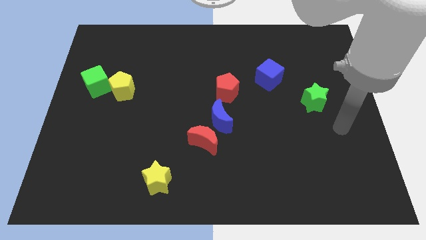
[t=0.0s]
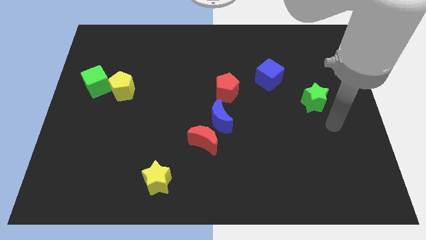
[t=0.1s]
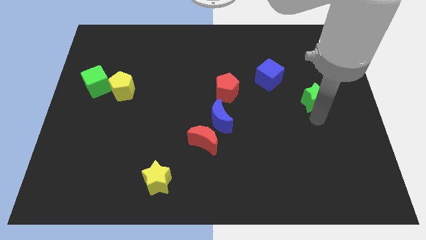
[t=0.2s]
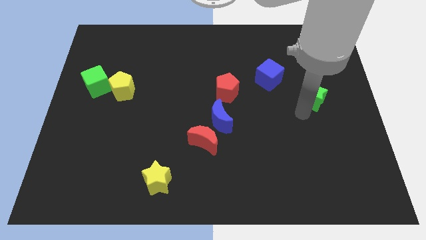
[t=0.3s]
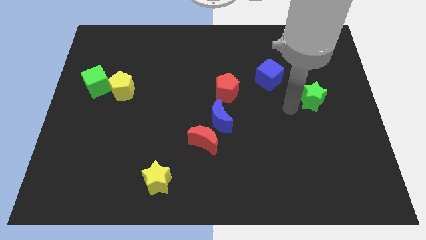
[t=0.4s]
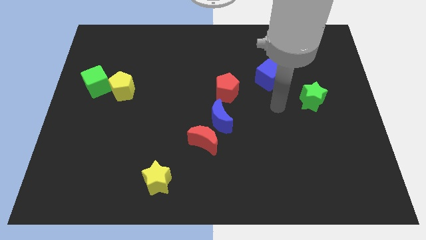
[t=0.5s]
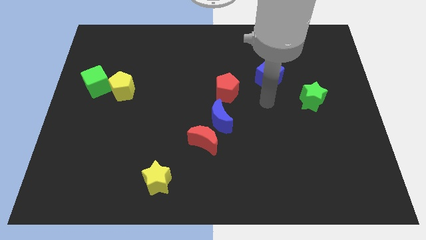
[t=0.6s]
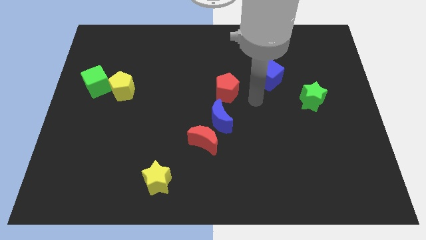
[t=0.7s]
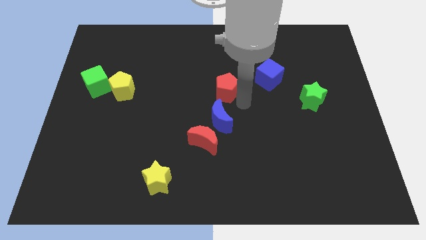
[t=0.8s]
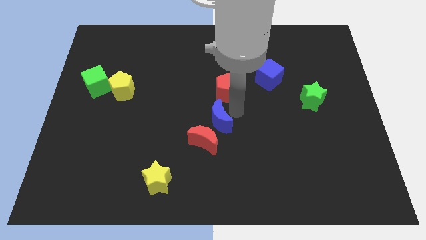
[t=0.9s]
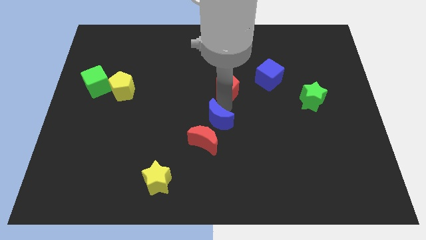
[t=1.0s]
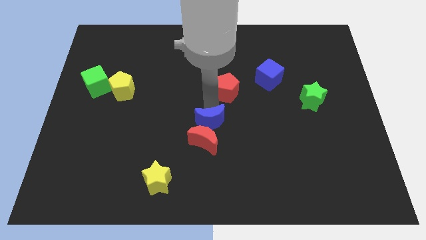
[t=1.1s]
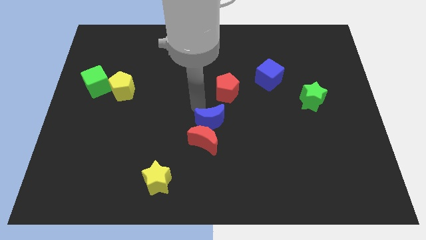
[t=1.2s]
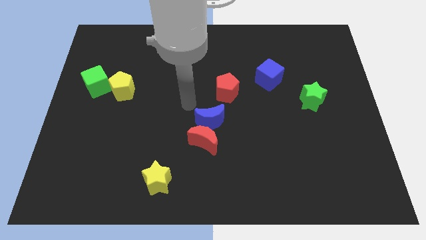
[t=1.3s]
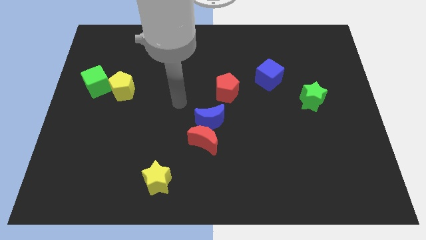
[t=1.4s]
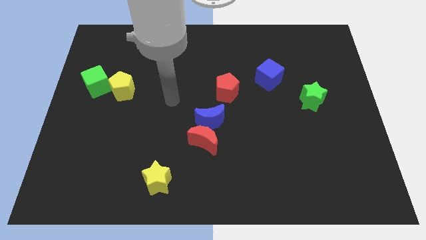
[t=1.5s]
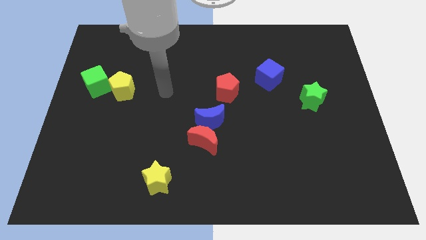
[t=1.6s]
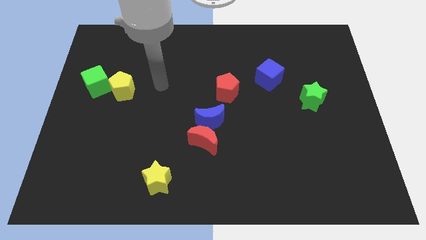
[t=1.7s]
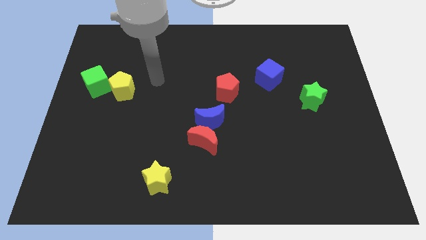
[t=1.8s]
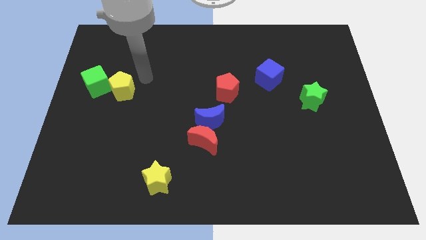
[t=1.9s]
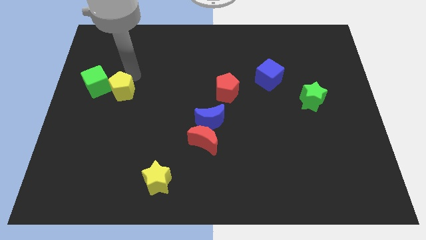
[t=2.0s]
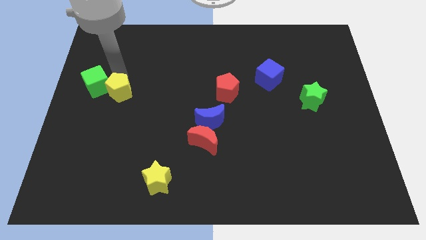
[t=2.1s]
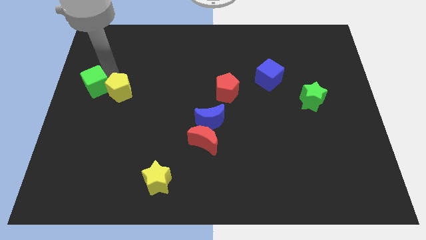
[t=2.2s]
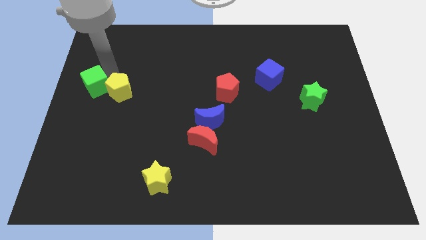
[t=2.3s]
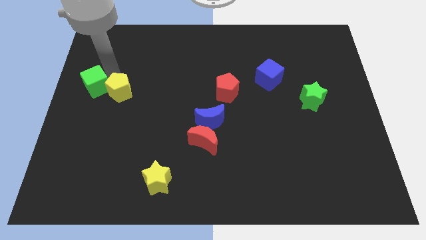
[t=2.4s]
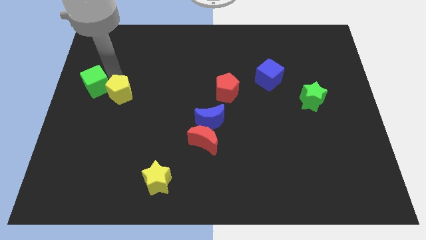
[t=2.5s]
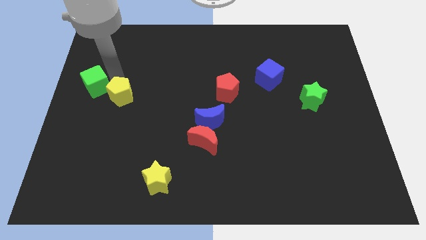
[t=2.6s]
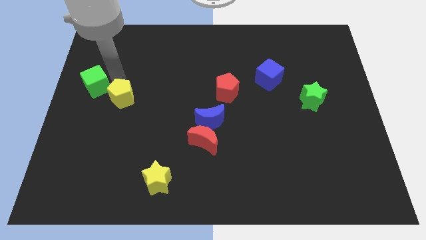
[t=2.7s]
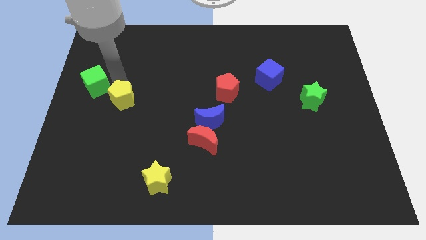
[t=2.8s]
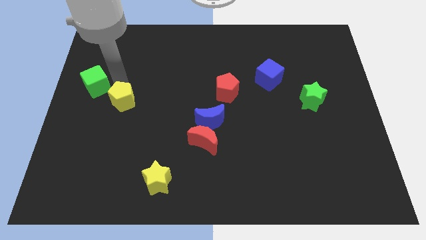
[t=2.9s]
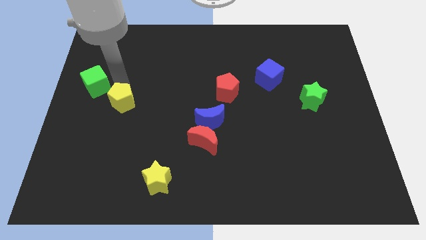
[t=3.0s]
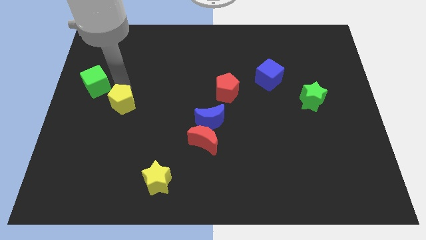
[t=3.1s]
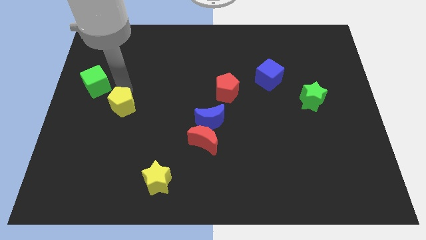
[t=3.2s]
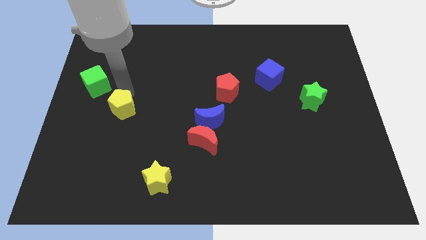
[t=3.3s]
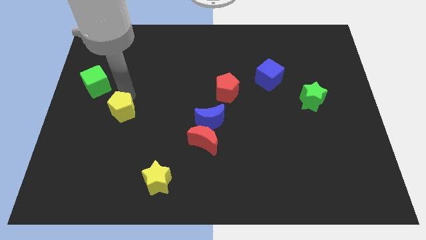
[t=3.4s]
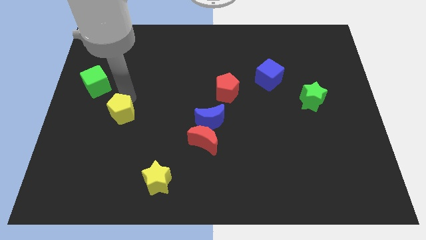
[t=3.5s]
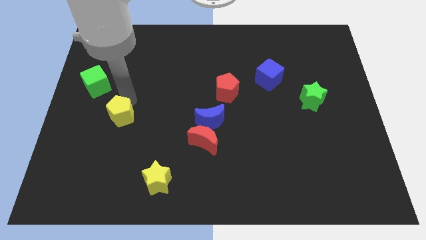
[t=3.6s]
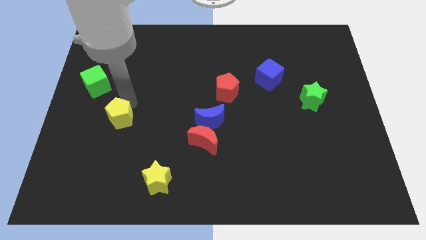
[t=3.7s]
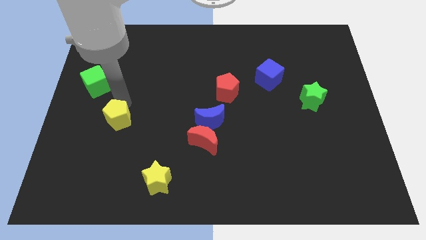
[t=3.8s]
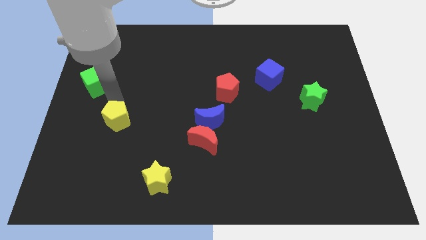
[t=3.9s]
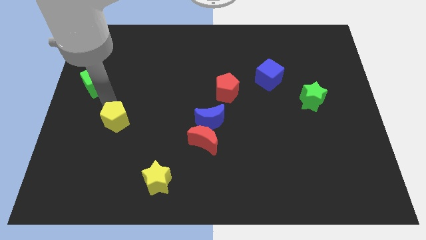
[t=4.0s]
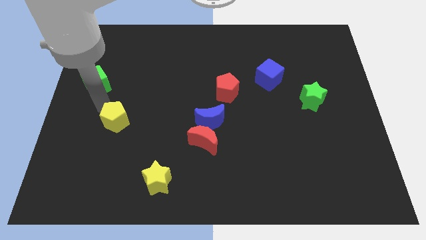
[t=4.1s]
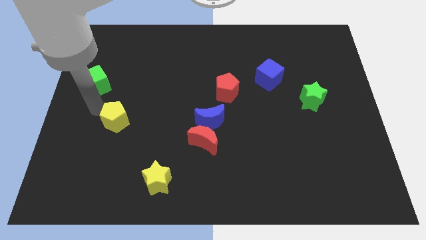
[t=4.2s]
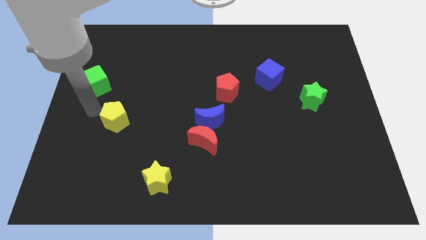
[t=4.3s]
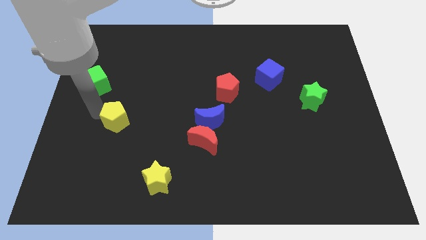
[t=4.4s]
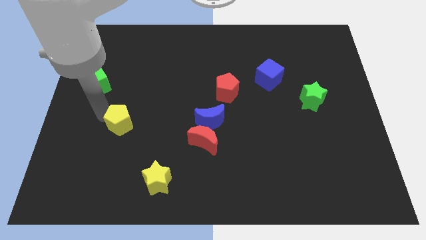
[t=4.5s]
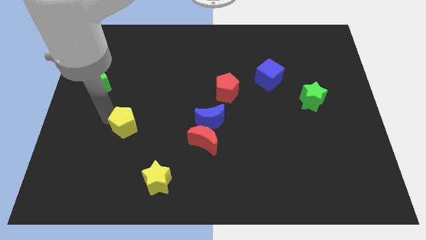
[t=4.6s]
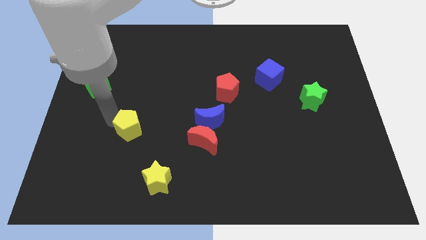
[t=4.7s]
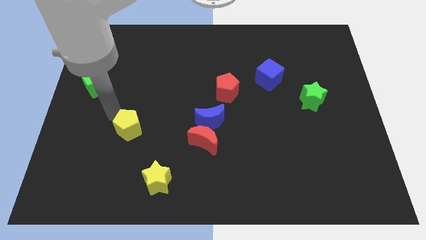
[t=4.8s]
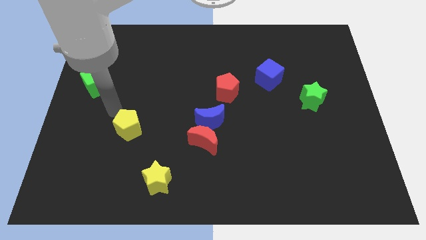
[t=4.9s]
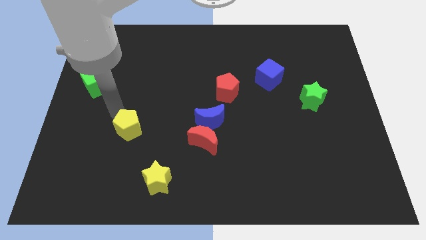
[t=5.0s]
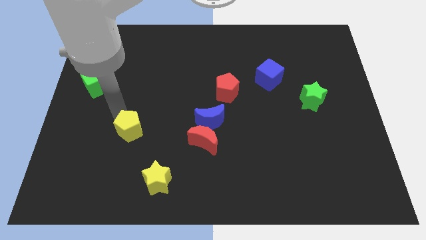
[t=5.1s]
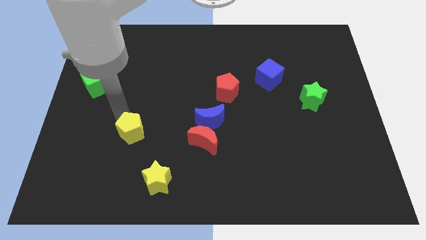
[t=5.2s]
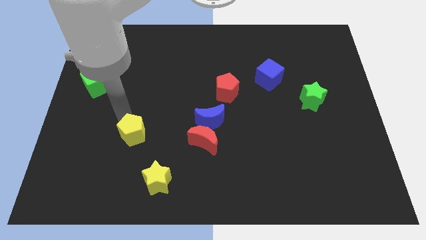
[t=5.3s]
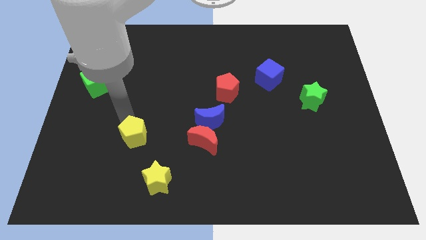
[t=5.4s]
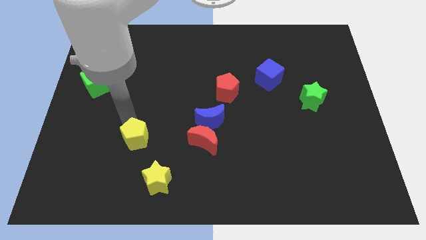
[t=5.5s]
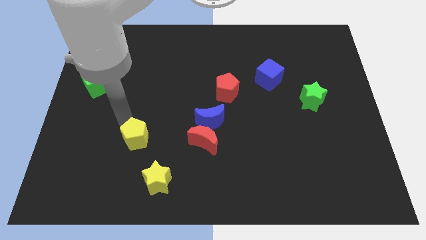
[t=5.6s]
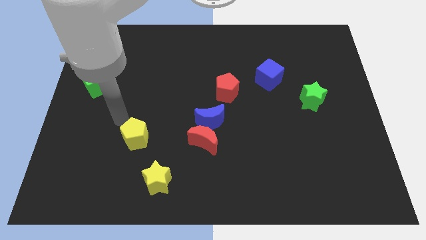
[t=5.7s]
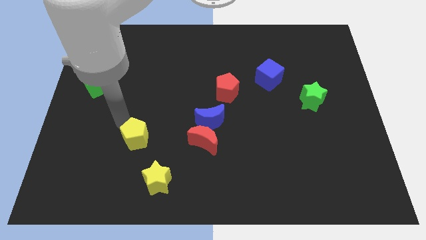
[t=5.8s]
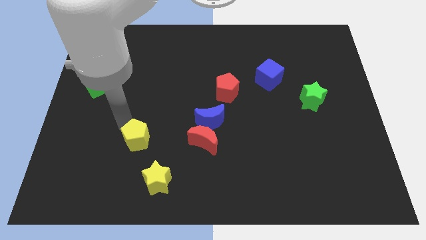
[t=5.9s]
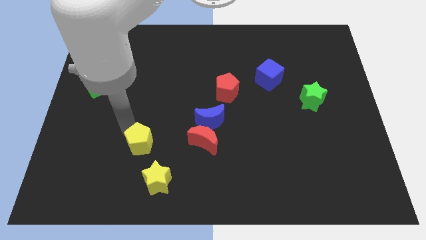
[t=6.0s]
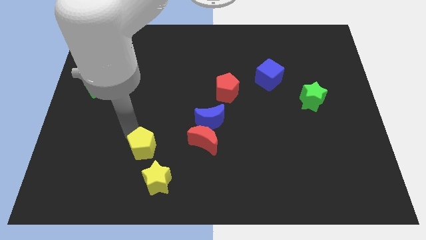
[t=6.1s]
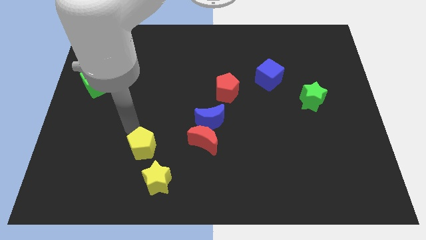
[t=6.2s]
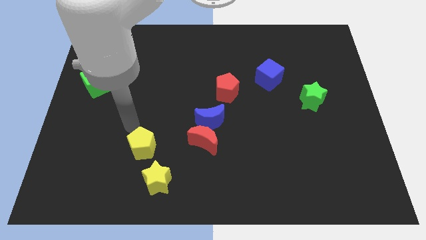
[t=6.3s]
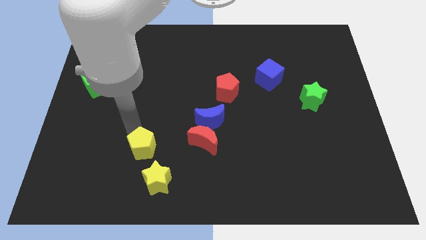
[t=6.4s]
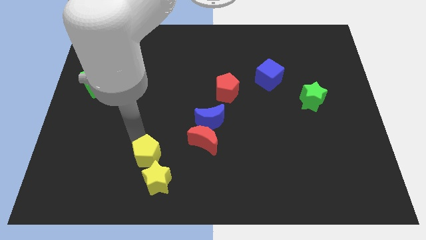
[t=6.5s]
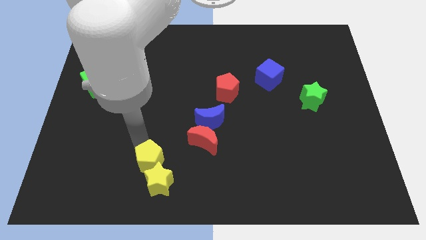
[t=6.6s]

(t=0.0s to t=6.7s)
push the yellow pentagon close to the yellow star
